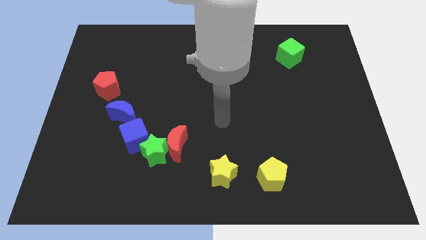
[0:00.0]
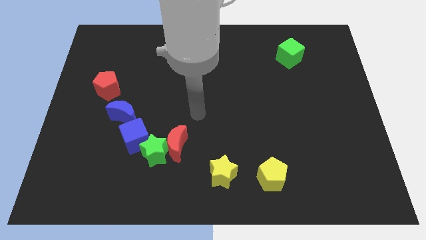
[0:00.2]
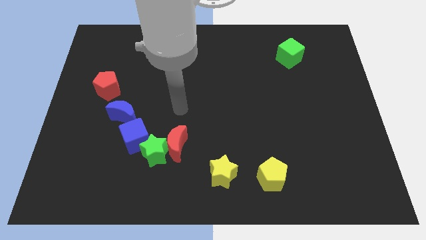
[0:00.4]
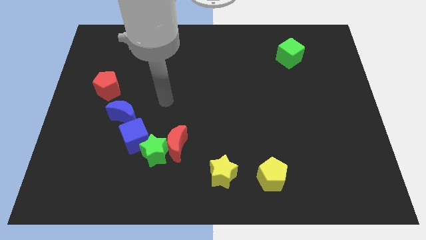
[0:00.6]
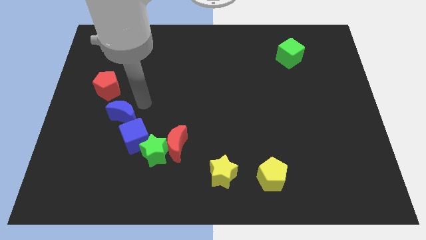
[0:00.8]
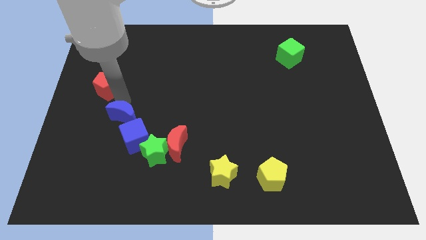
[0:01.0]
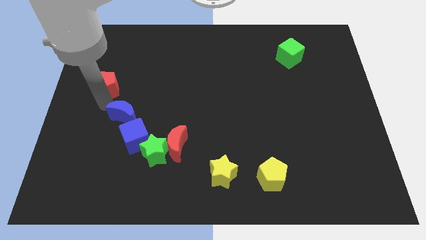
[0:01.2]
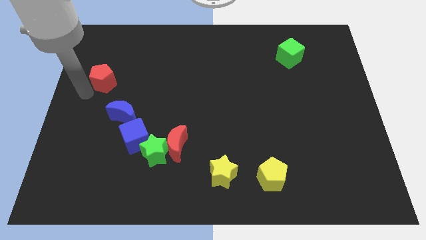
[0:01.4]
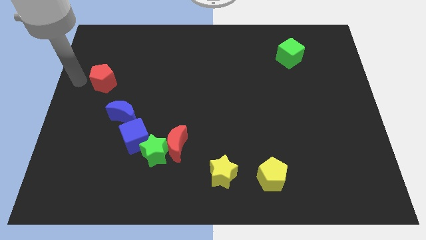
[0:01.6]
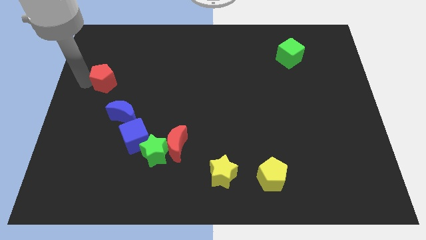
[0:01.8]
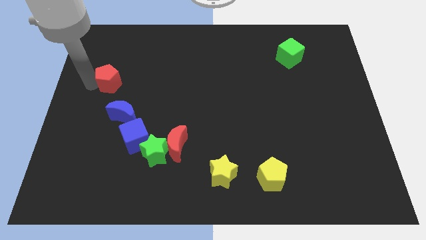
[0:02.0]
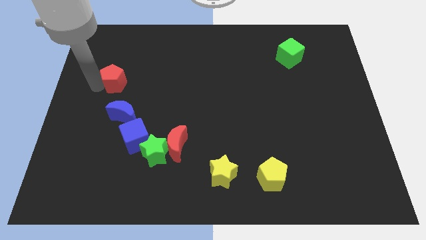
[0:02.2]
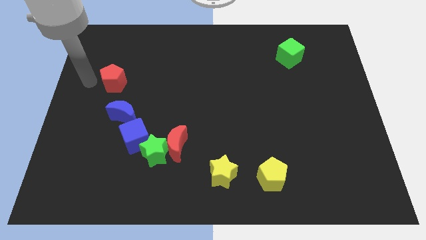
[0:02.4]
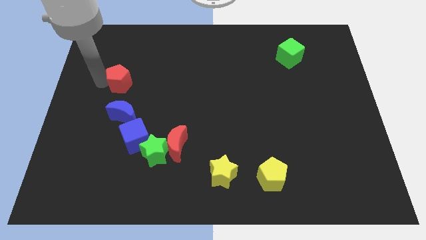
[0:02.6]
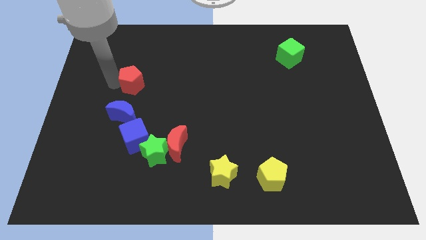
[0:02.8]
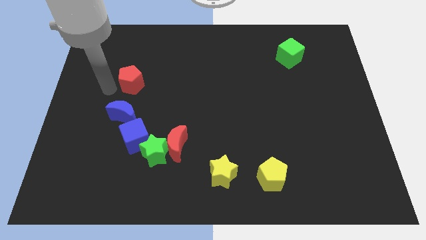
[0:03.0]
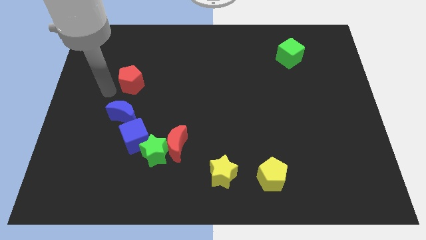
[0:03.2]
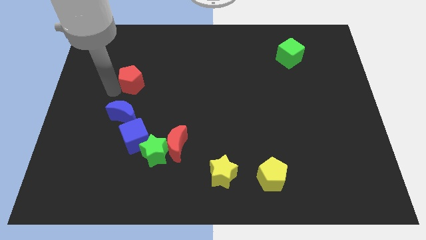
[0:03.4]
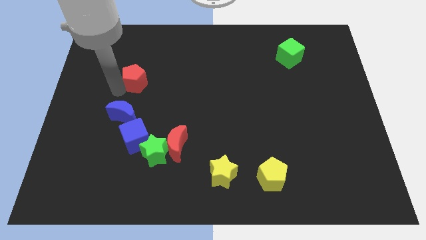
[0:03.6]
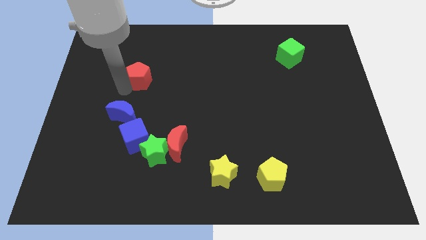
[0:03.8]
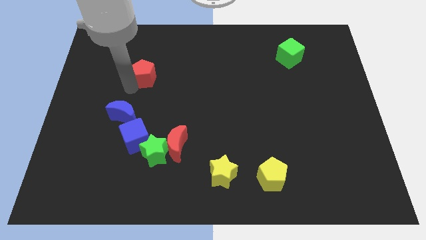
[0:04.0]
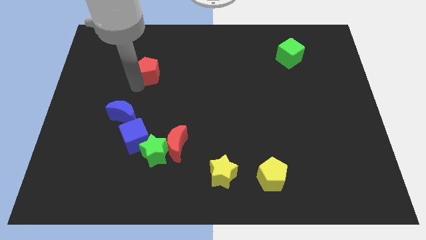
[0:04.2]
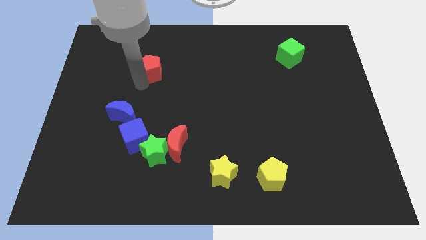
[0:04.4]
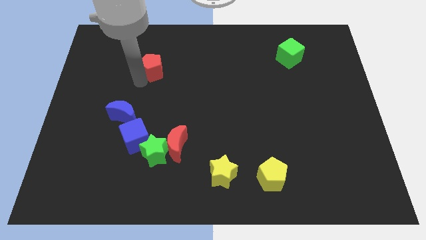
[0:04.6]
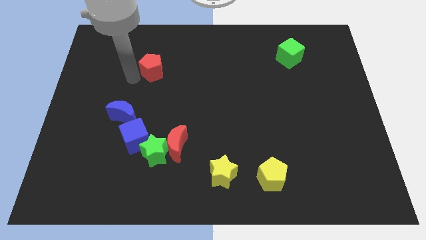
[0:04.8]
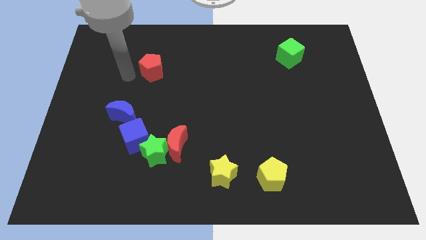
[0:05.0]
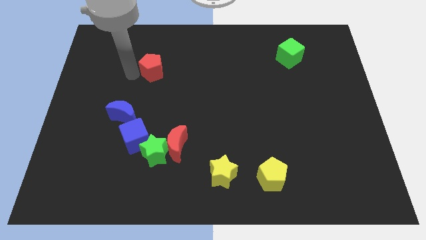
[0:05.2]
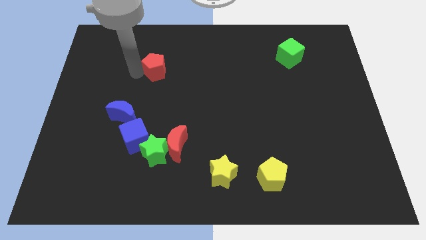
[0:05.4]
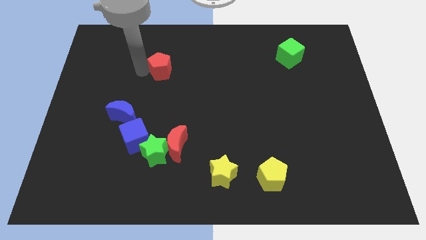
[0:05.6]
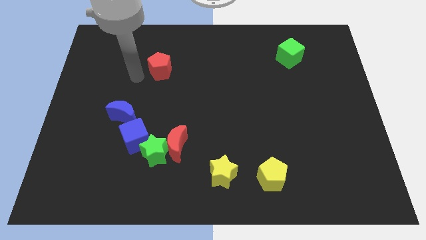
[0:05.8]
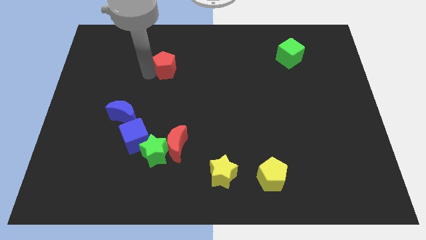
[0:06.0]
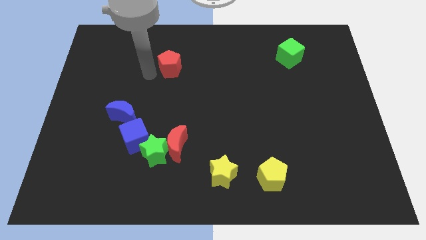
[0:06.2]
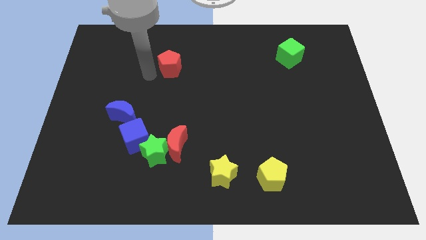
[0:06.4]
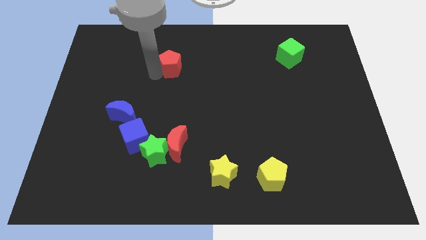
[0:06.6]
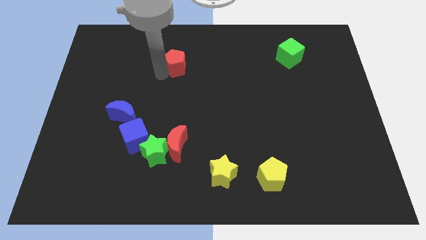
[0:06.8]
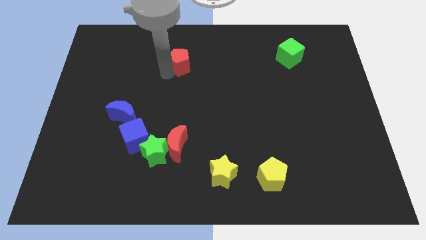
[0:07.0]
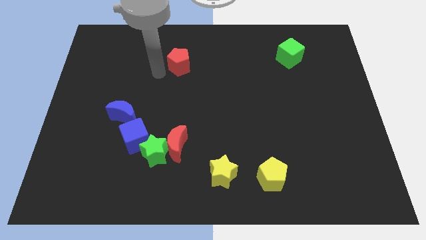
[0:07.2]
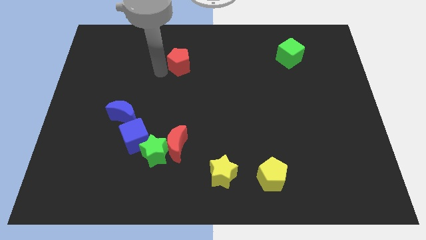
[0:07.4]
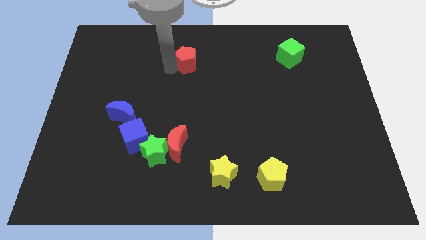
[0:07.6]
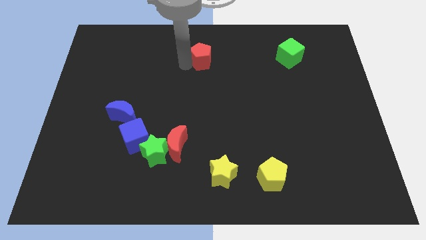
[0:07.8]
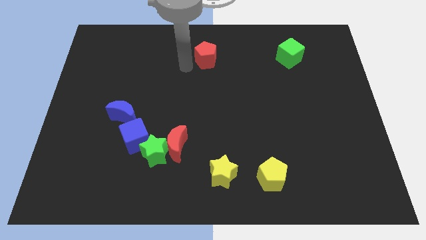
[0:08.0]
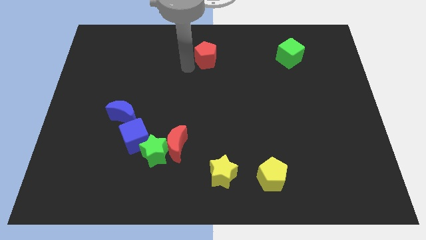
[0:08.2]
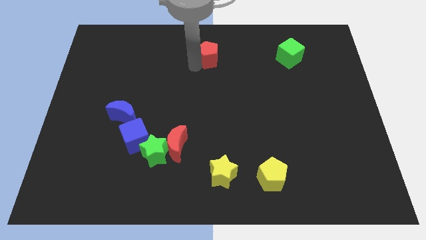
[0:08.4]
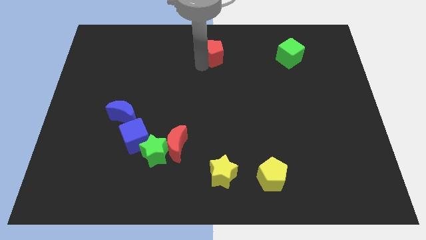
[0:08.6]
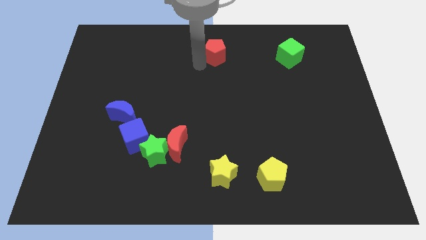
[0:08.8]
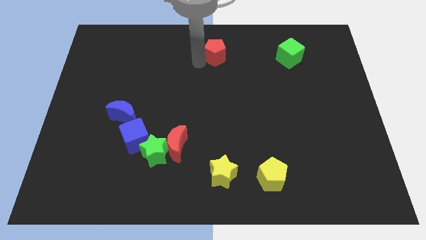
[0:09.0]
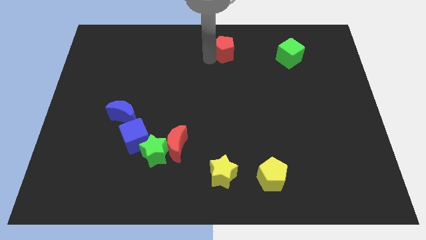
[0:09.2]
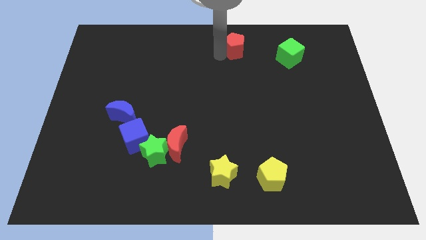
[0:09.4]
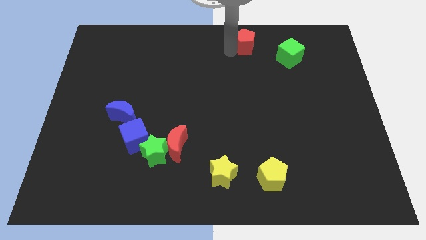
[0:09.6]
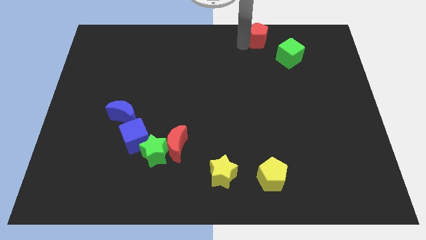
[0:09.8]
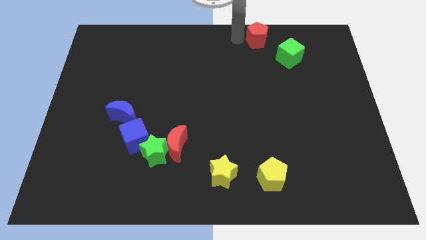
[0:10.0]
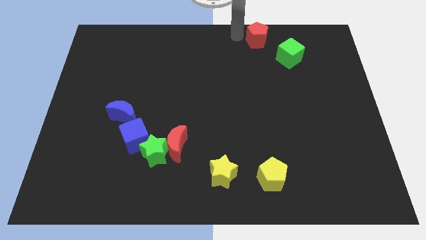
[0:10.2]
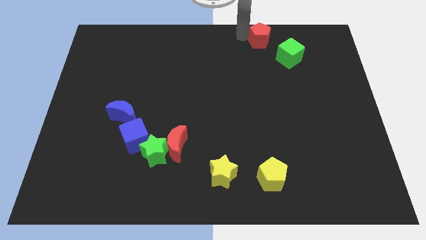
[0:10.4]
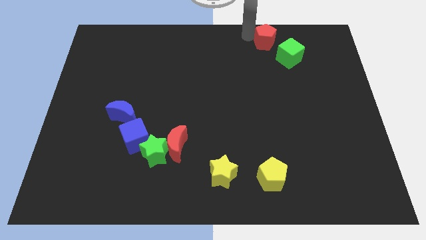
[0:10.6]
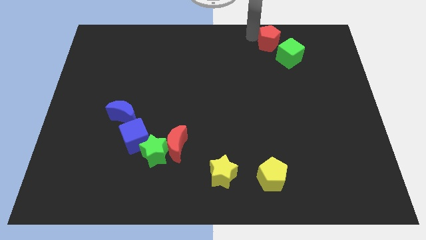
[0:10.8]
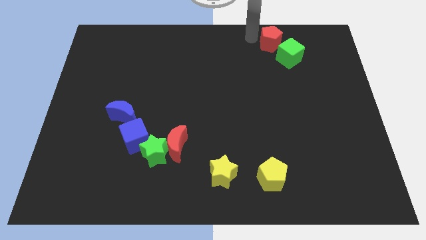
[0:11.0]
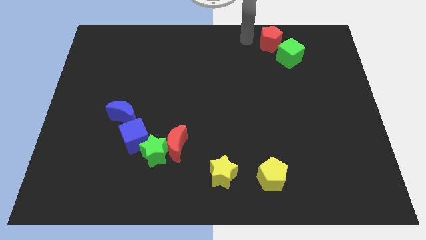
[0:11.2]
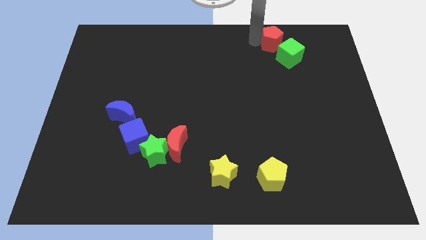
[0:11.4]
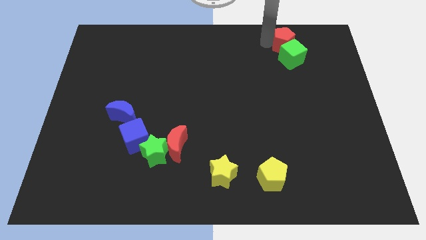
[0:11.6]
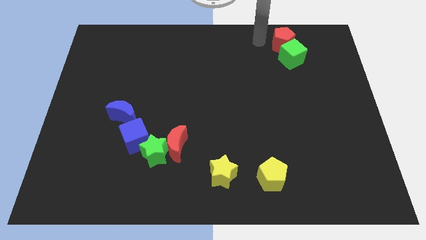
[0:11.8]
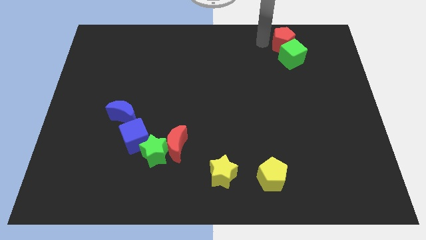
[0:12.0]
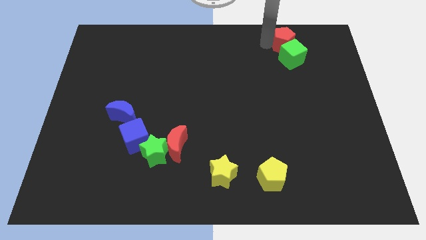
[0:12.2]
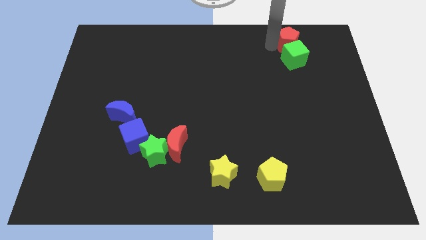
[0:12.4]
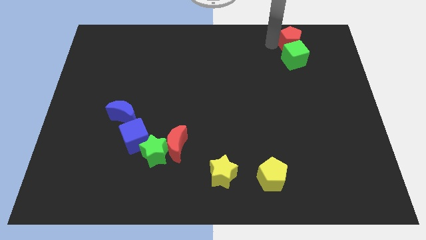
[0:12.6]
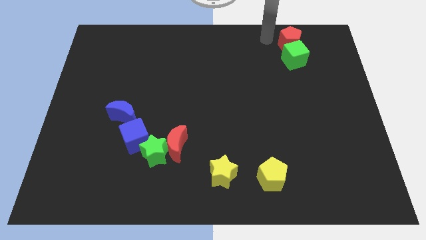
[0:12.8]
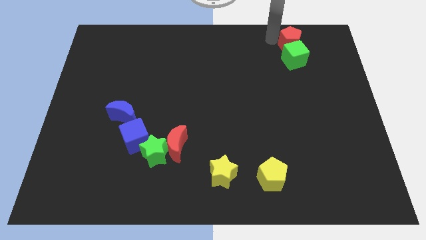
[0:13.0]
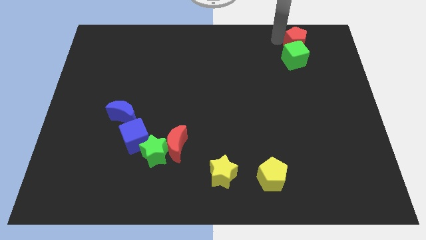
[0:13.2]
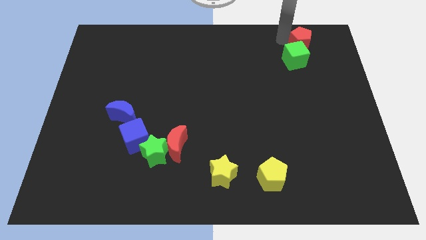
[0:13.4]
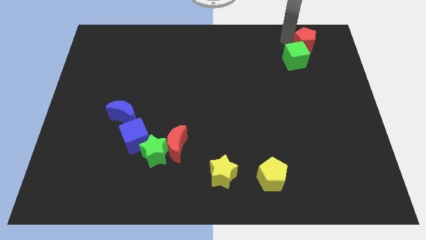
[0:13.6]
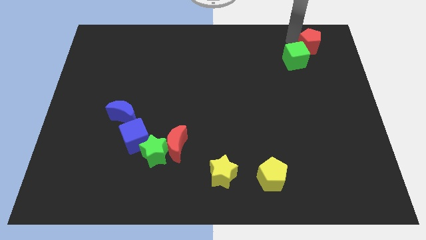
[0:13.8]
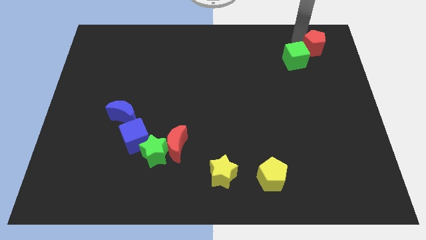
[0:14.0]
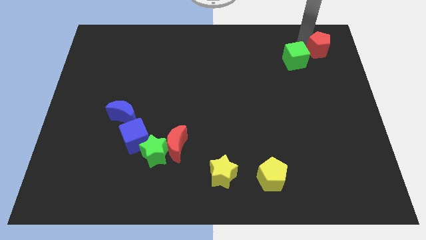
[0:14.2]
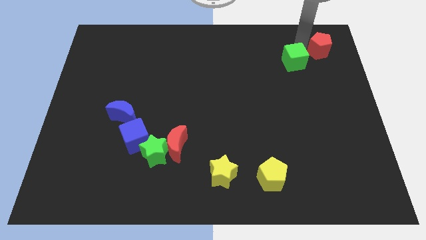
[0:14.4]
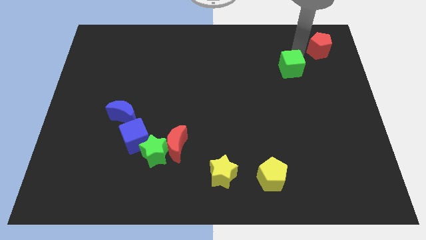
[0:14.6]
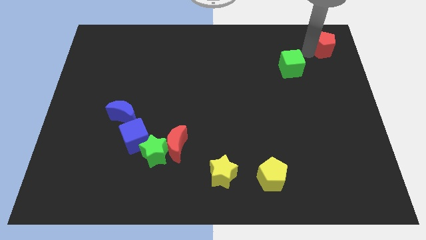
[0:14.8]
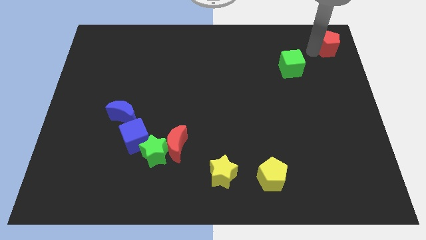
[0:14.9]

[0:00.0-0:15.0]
move the red pentagon to the upper right corner
